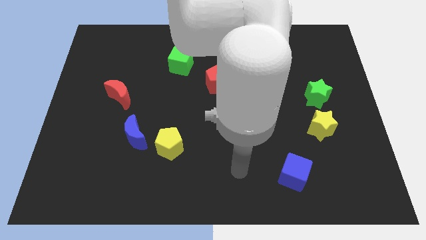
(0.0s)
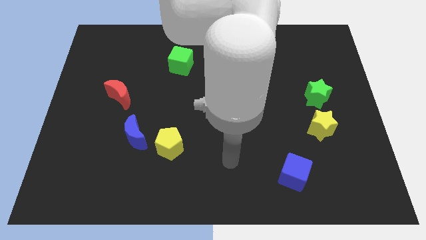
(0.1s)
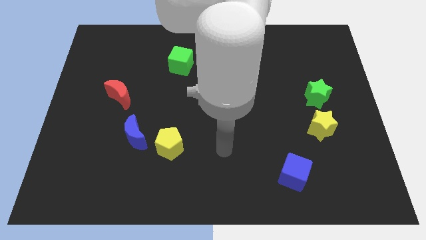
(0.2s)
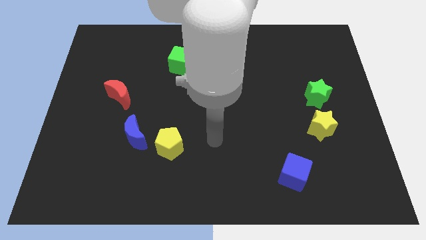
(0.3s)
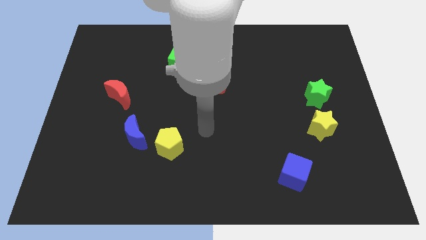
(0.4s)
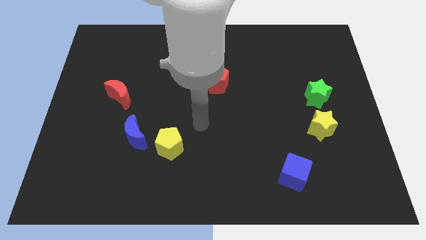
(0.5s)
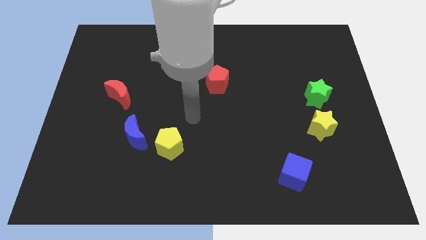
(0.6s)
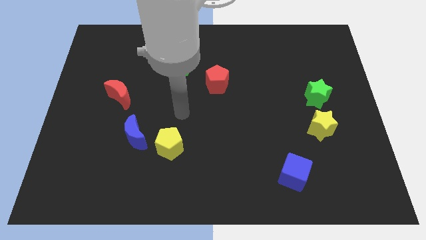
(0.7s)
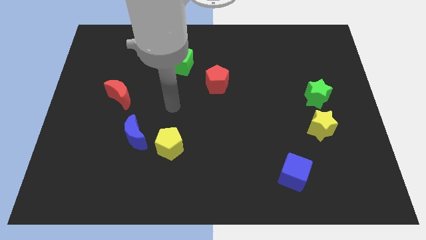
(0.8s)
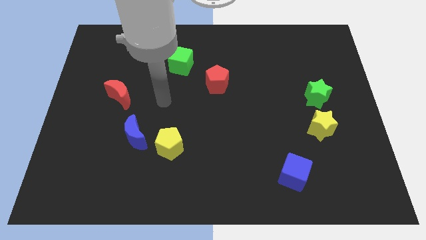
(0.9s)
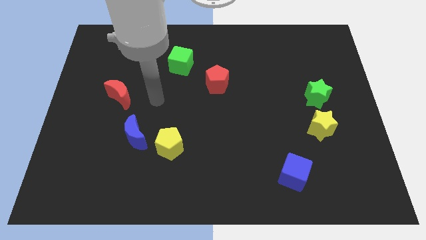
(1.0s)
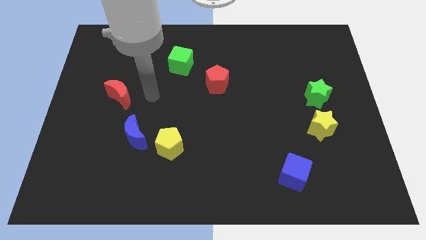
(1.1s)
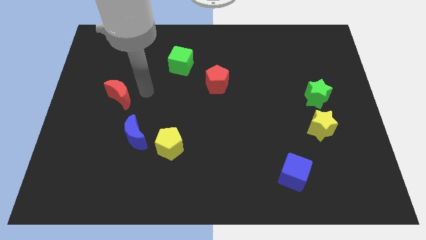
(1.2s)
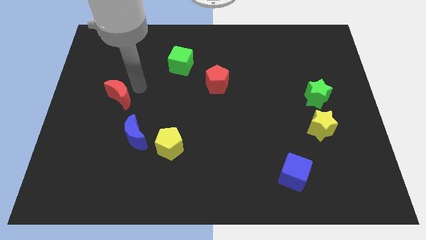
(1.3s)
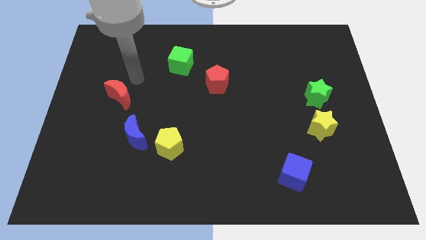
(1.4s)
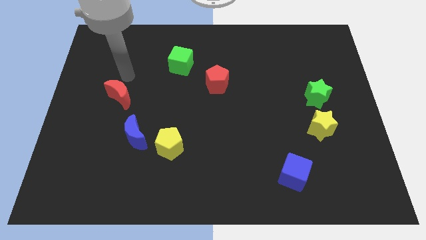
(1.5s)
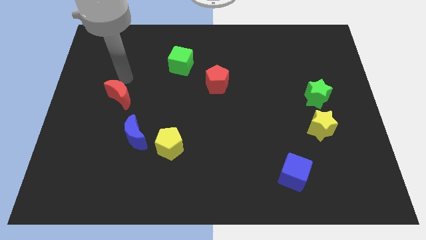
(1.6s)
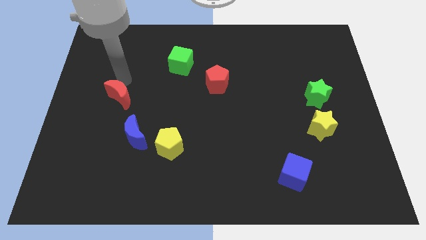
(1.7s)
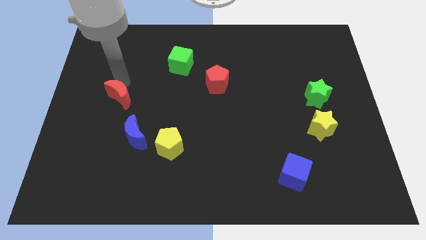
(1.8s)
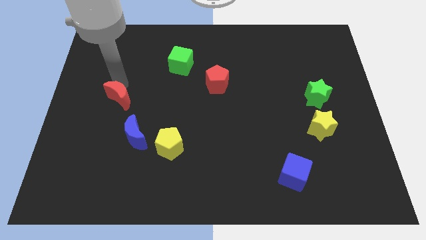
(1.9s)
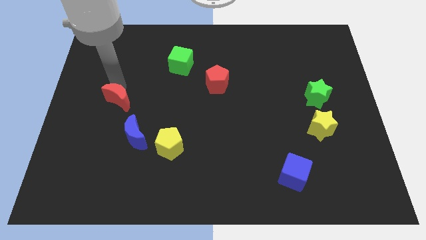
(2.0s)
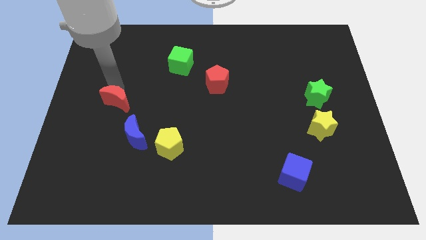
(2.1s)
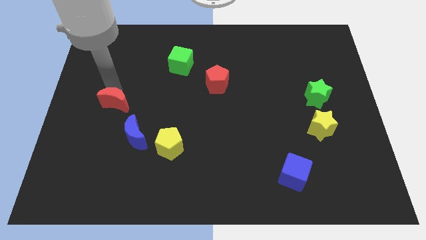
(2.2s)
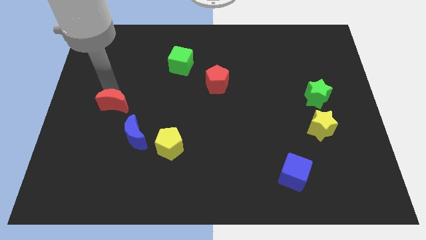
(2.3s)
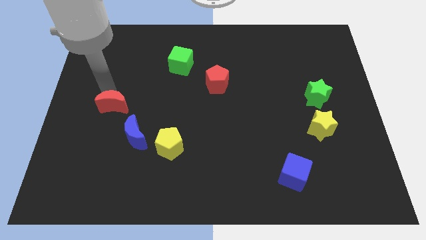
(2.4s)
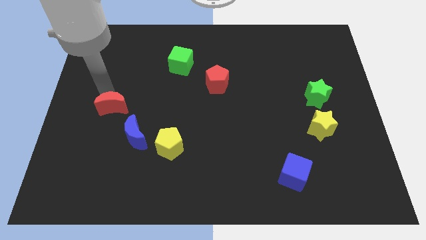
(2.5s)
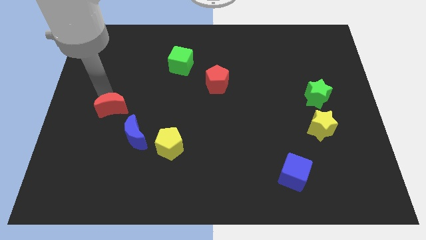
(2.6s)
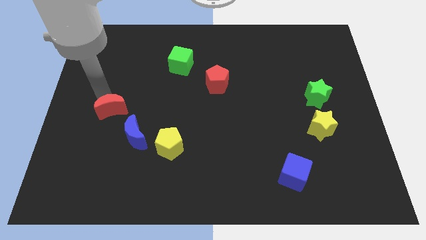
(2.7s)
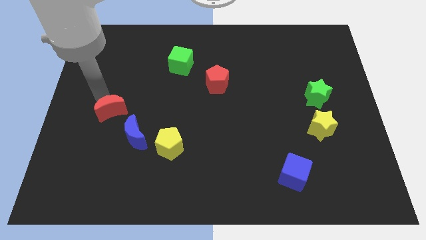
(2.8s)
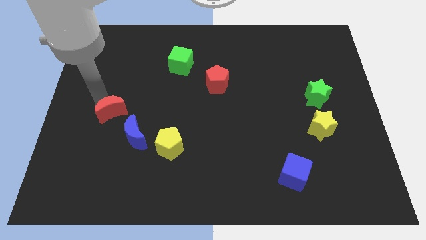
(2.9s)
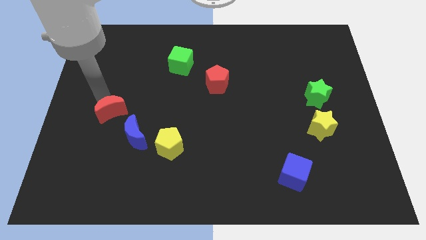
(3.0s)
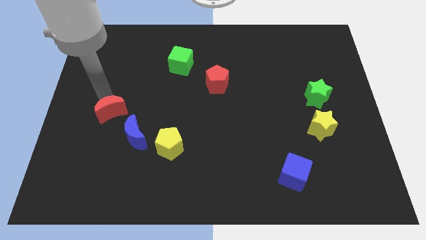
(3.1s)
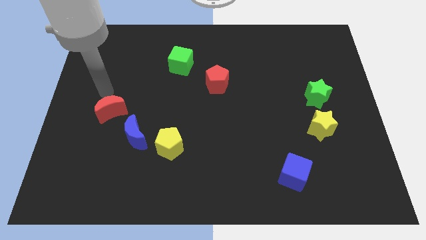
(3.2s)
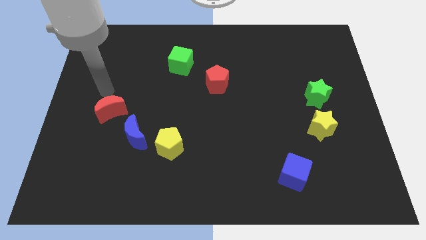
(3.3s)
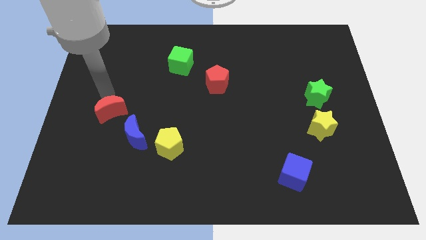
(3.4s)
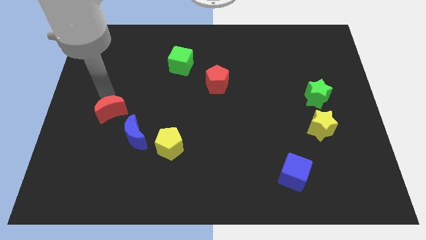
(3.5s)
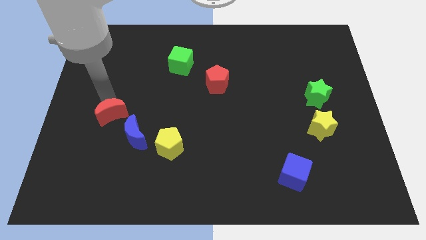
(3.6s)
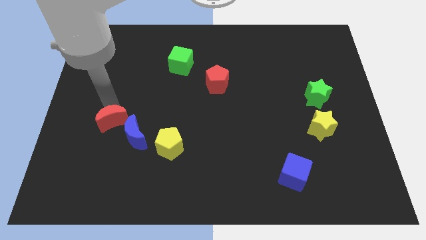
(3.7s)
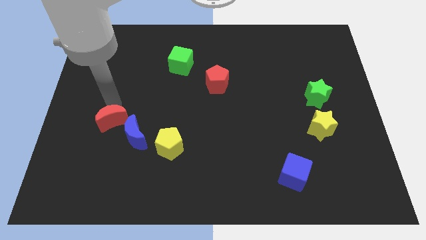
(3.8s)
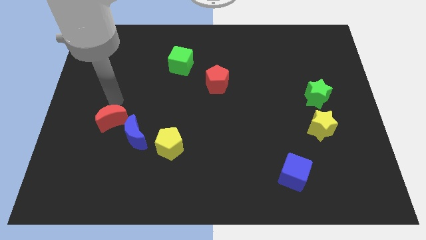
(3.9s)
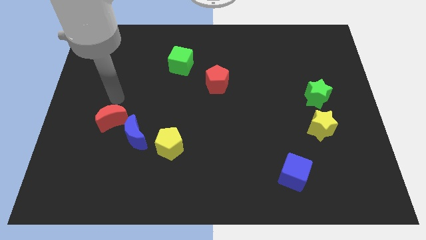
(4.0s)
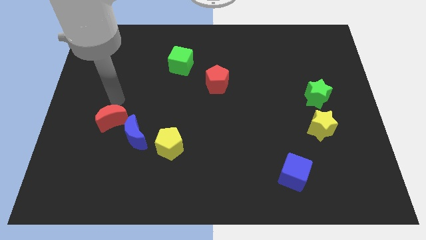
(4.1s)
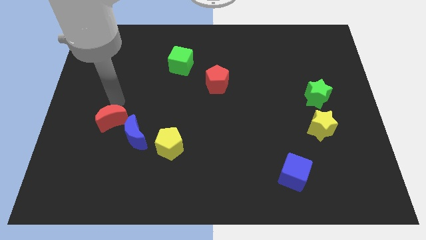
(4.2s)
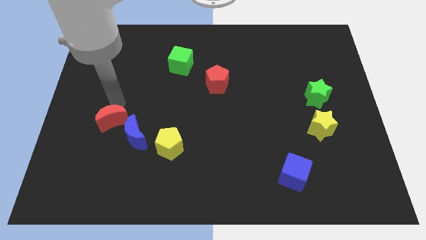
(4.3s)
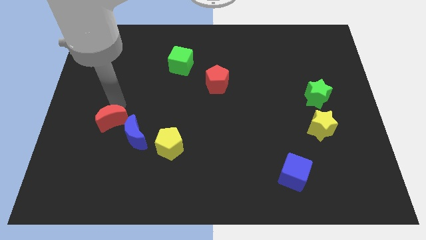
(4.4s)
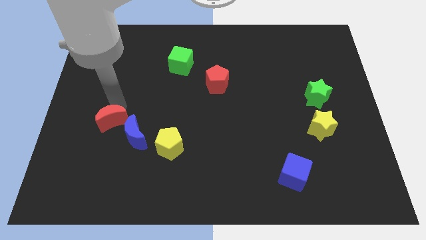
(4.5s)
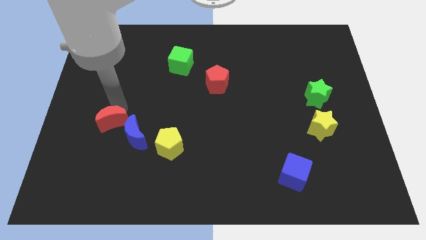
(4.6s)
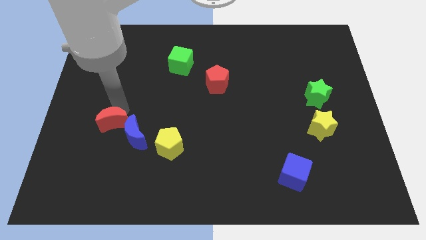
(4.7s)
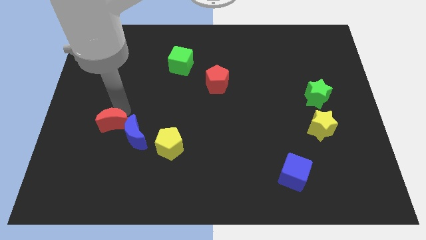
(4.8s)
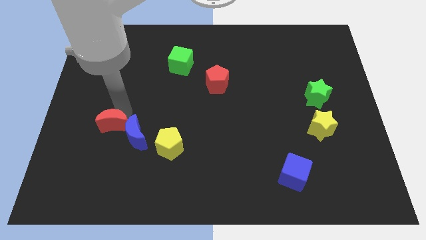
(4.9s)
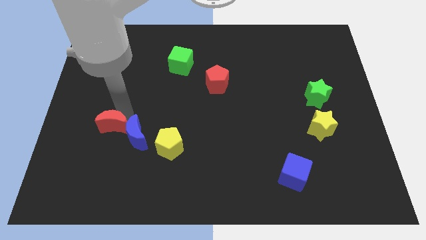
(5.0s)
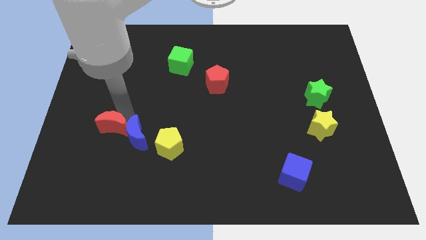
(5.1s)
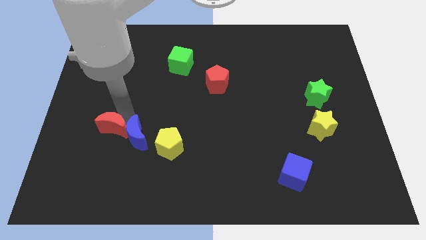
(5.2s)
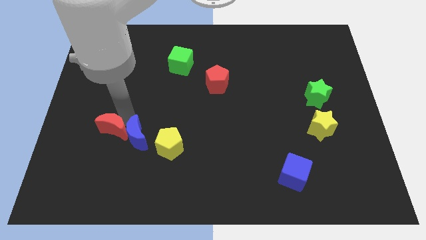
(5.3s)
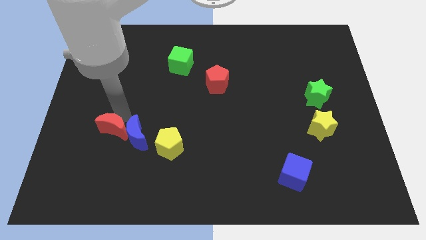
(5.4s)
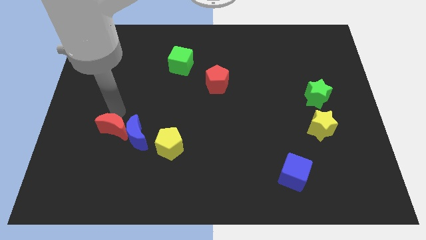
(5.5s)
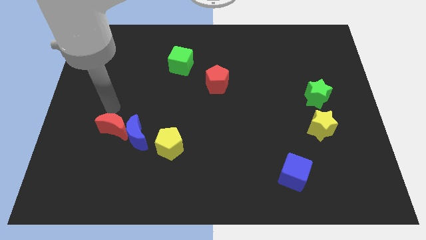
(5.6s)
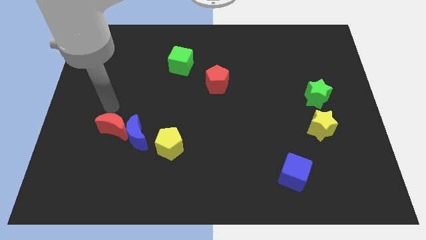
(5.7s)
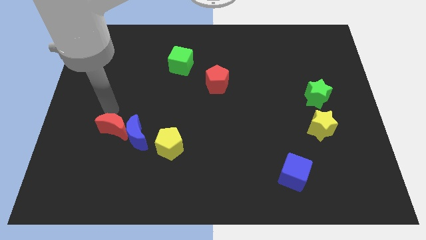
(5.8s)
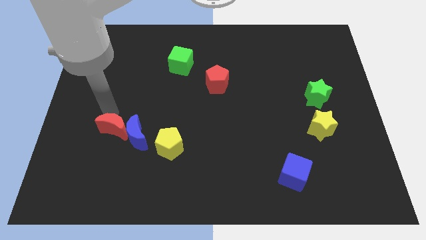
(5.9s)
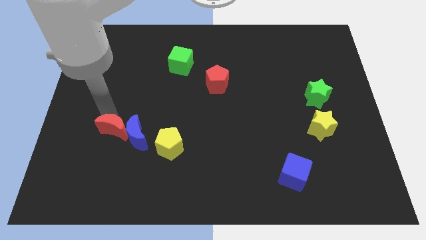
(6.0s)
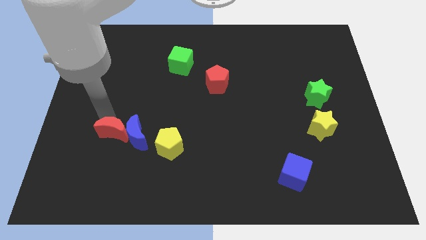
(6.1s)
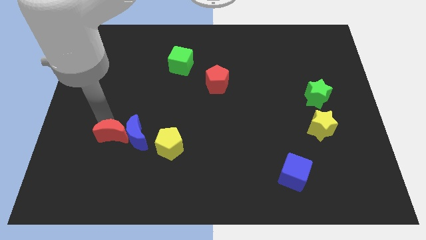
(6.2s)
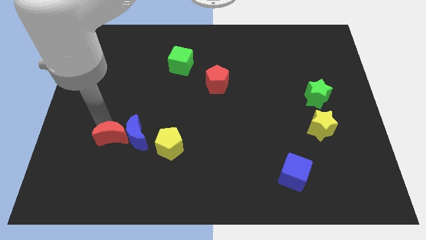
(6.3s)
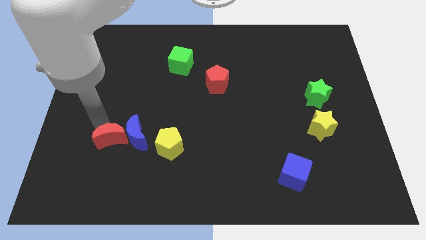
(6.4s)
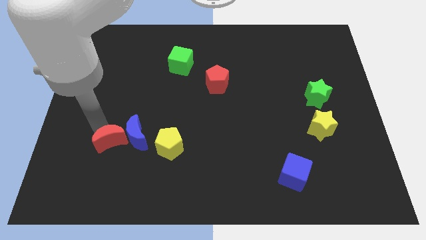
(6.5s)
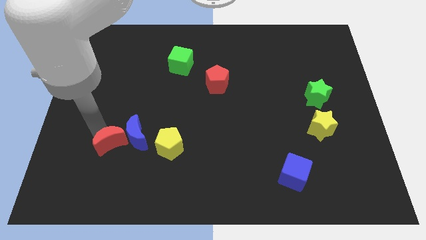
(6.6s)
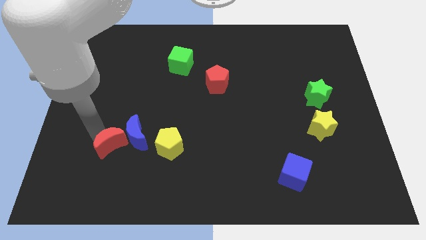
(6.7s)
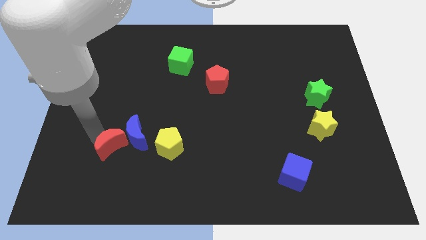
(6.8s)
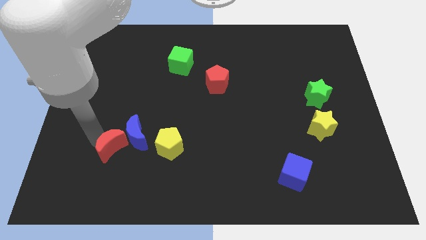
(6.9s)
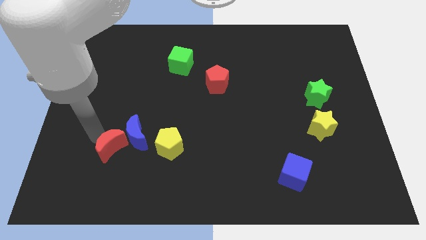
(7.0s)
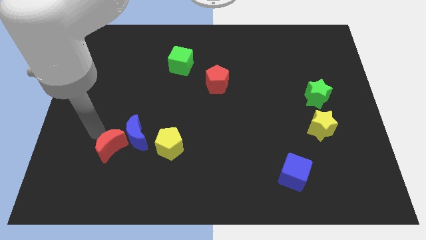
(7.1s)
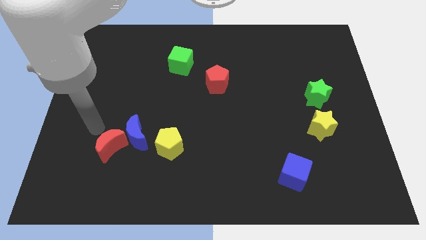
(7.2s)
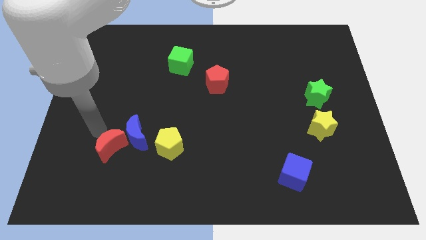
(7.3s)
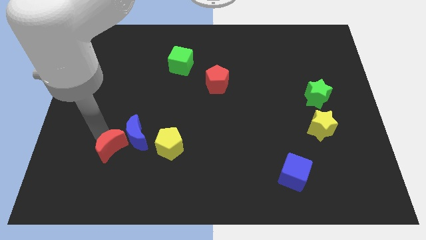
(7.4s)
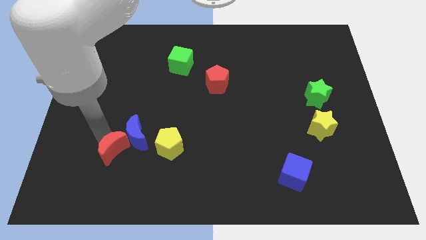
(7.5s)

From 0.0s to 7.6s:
put the red moon below the blue moon

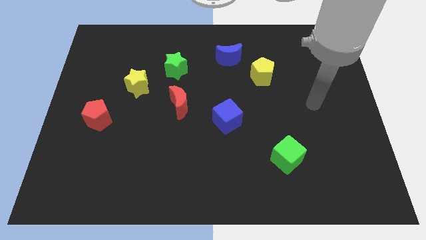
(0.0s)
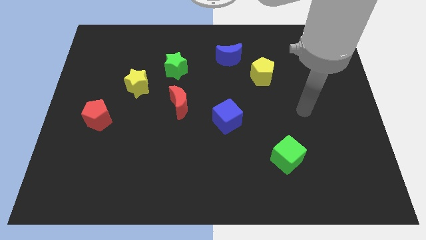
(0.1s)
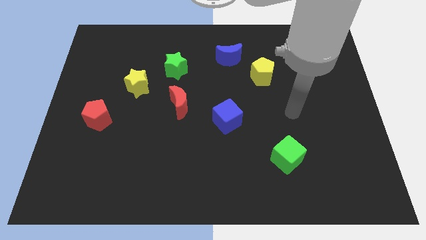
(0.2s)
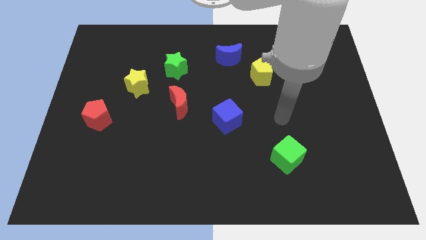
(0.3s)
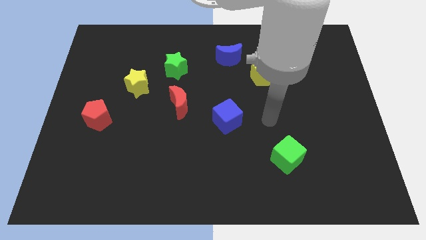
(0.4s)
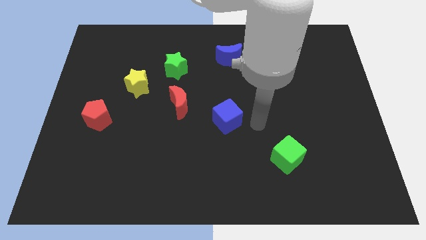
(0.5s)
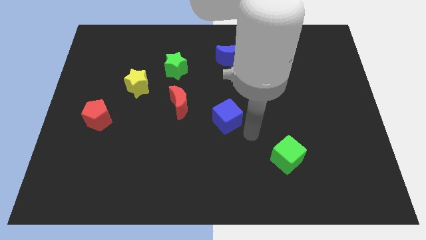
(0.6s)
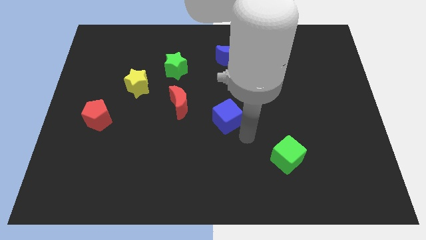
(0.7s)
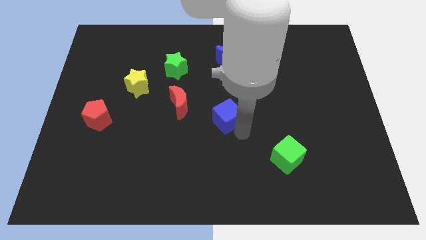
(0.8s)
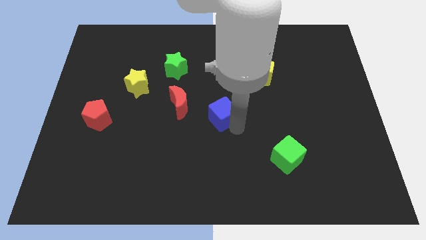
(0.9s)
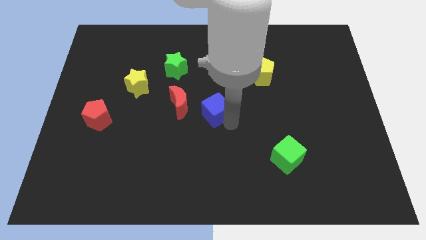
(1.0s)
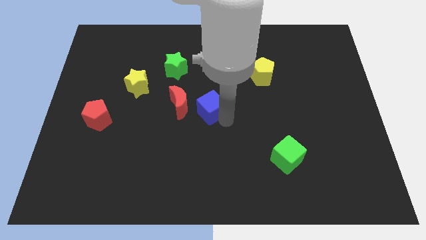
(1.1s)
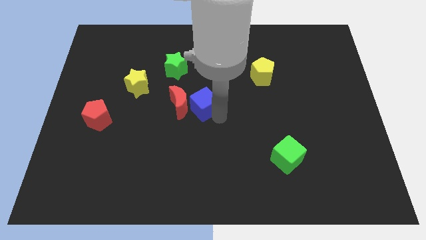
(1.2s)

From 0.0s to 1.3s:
move the blue cube to the top right of the red moon
